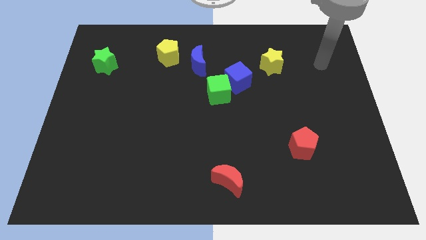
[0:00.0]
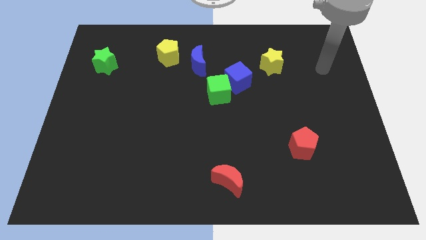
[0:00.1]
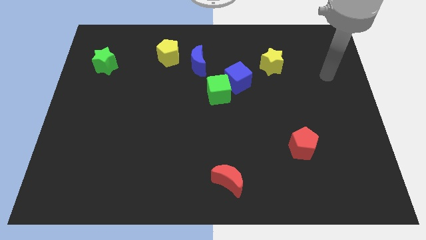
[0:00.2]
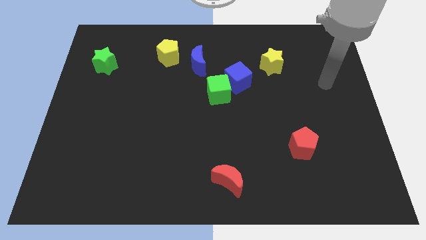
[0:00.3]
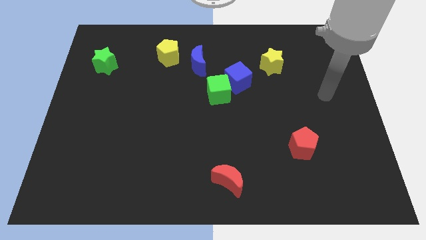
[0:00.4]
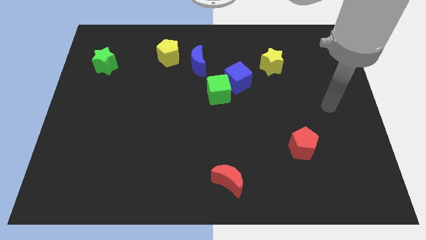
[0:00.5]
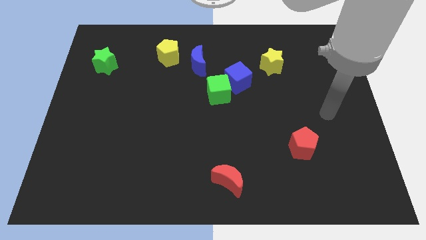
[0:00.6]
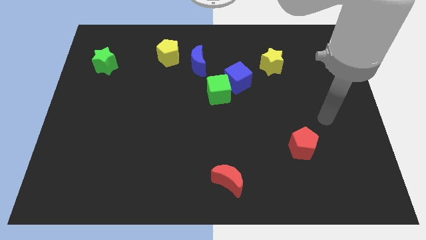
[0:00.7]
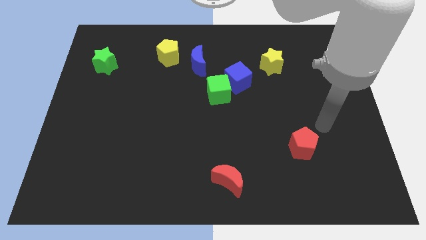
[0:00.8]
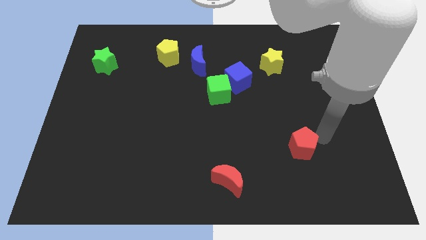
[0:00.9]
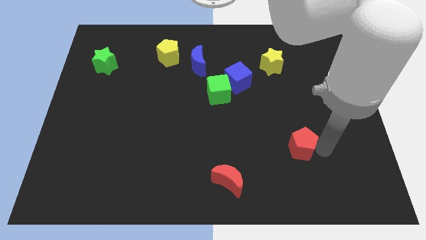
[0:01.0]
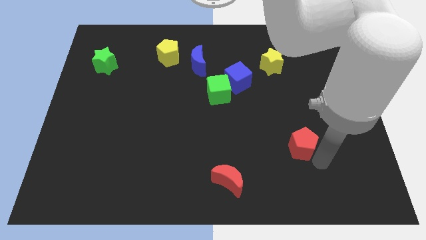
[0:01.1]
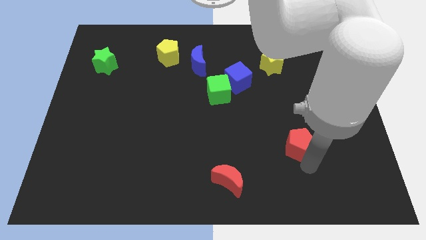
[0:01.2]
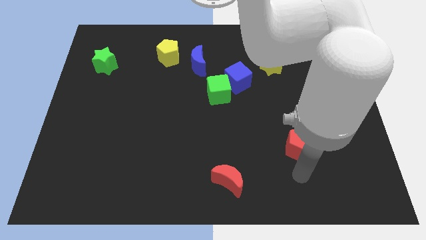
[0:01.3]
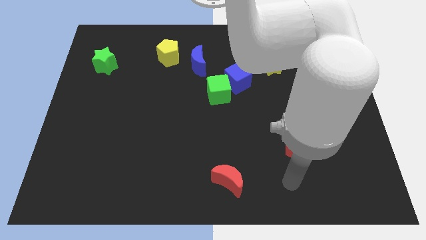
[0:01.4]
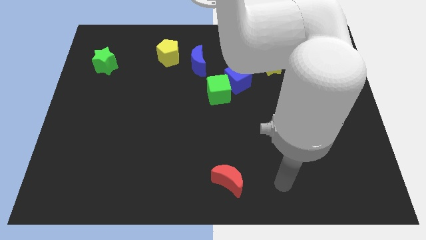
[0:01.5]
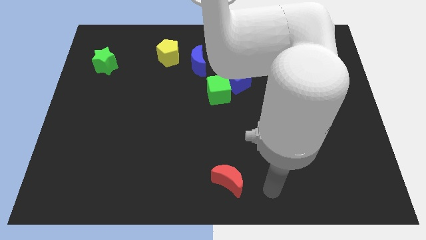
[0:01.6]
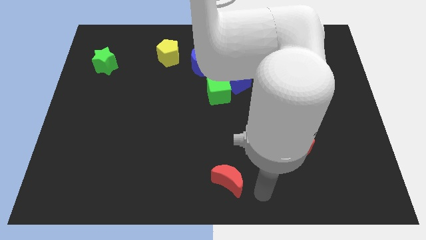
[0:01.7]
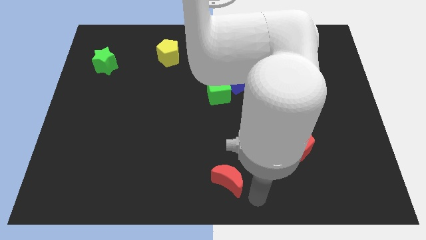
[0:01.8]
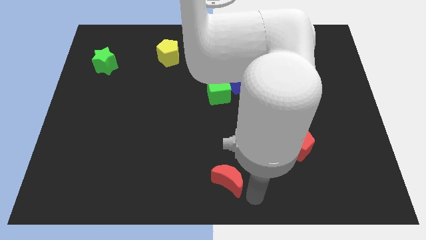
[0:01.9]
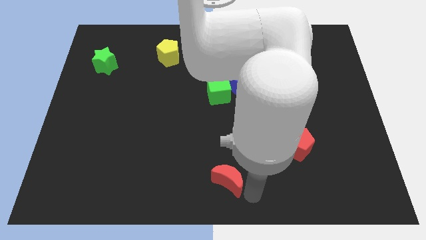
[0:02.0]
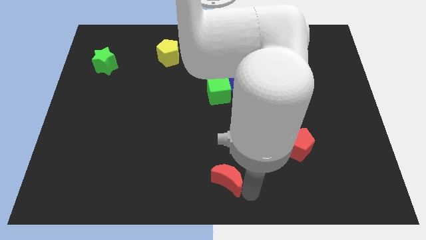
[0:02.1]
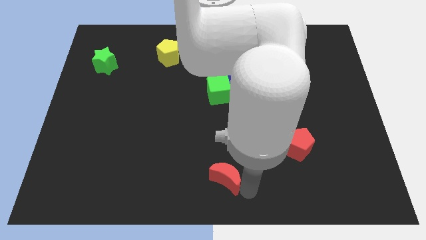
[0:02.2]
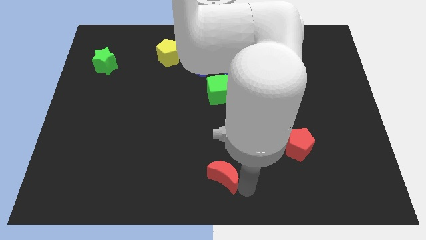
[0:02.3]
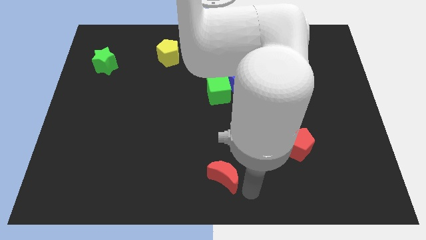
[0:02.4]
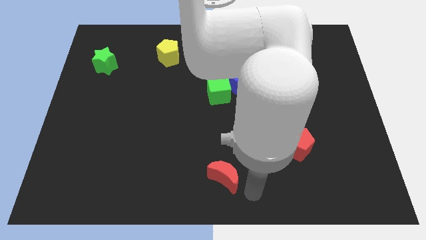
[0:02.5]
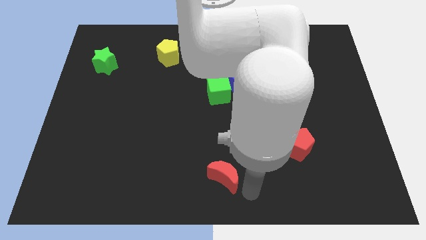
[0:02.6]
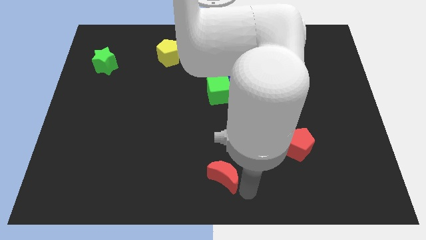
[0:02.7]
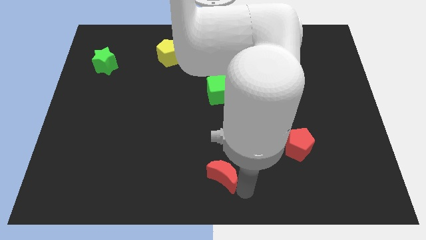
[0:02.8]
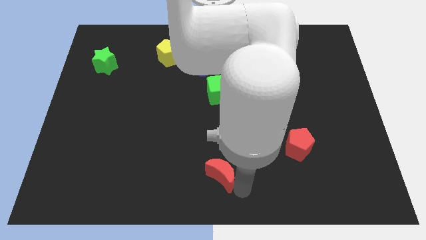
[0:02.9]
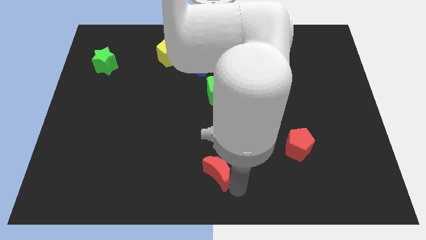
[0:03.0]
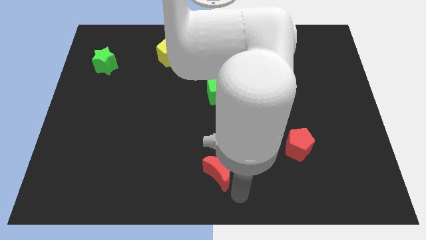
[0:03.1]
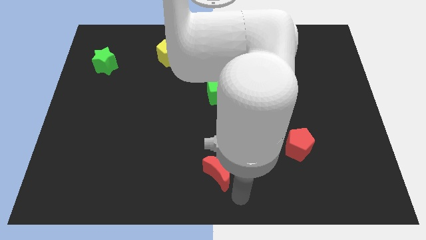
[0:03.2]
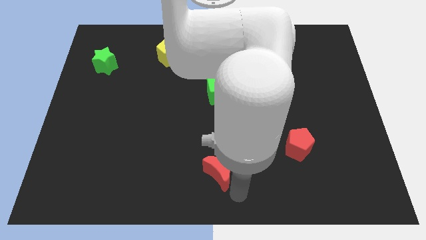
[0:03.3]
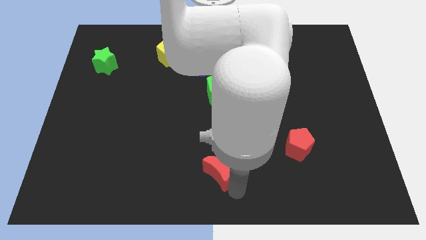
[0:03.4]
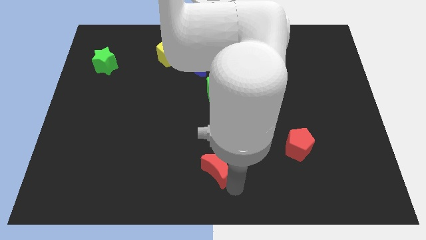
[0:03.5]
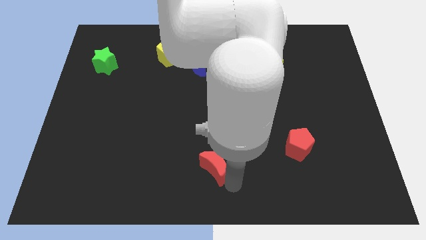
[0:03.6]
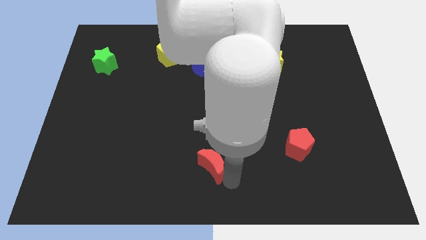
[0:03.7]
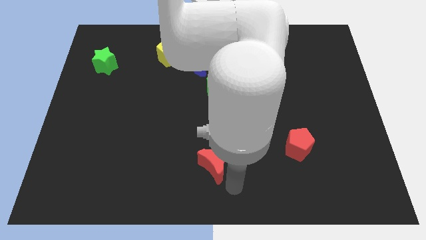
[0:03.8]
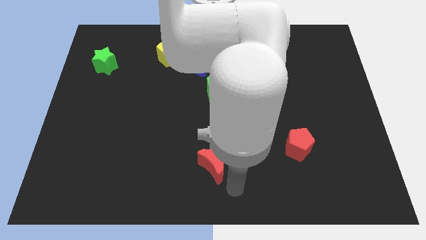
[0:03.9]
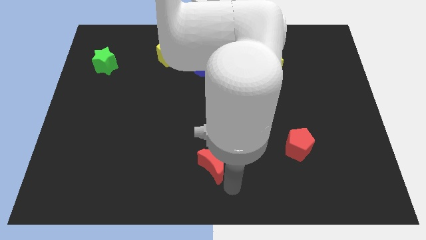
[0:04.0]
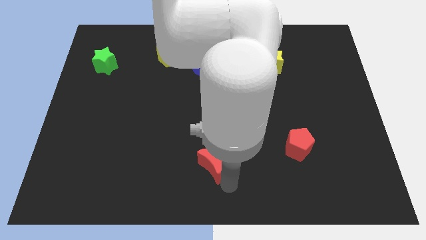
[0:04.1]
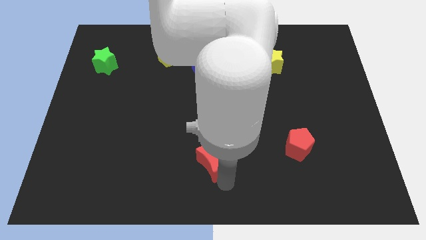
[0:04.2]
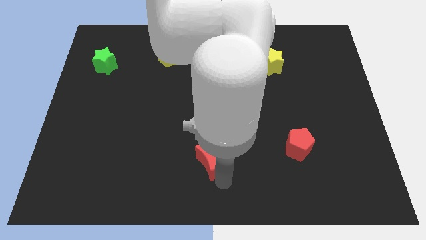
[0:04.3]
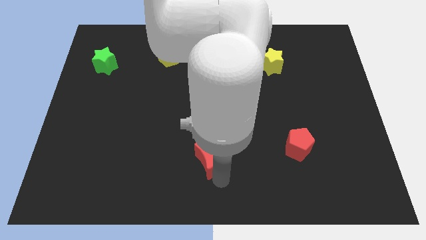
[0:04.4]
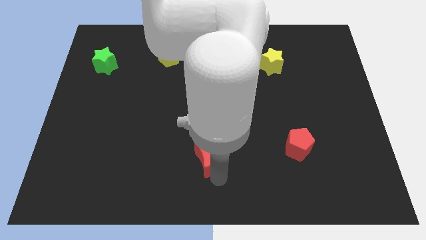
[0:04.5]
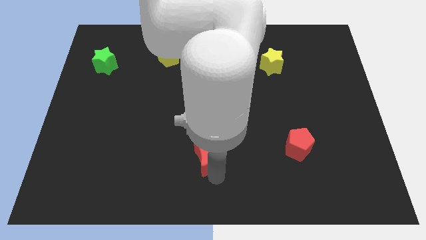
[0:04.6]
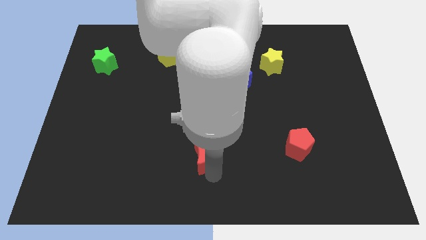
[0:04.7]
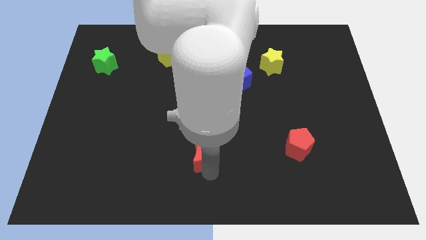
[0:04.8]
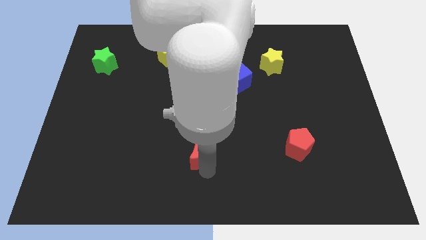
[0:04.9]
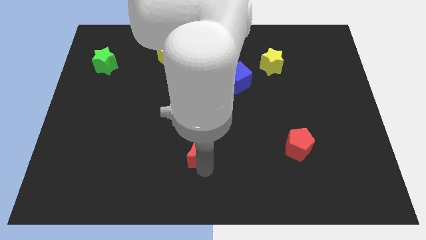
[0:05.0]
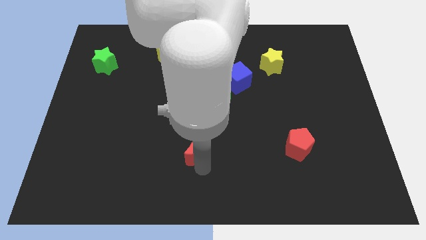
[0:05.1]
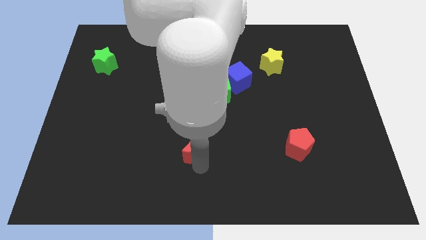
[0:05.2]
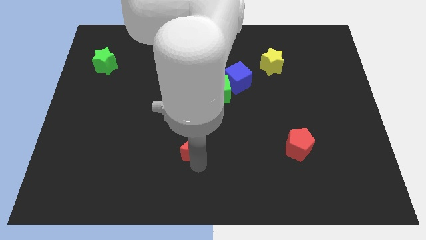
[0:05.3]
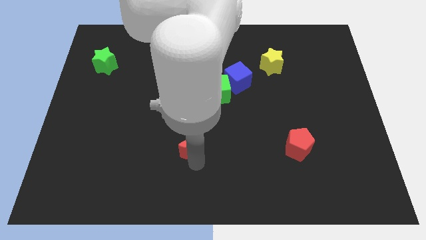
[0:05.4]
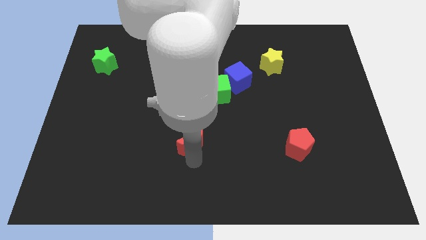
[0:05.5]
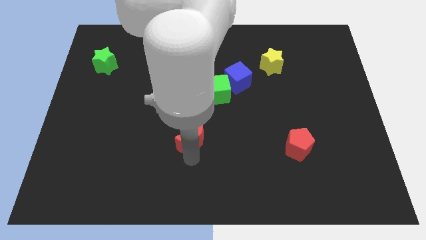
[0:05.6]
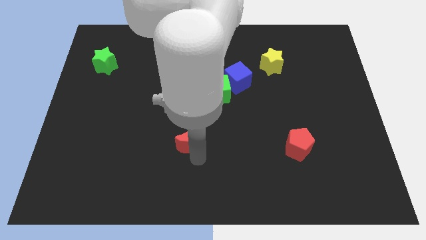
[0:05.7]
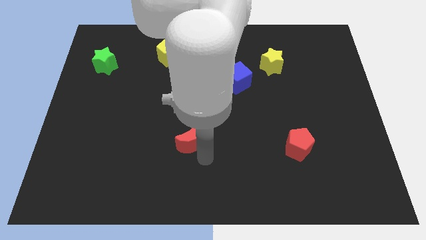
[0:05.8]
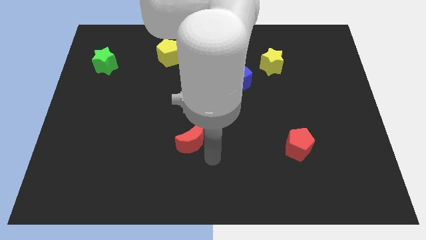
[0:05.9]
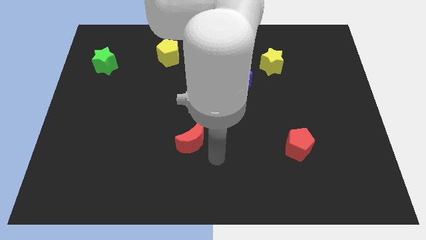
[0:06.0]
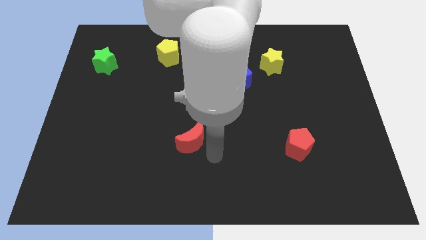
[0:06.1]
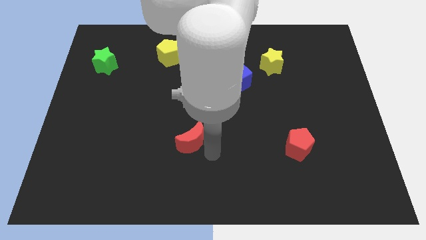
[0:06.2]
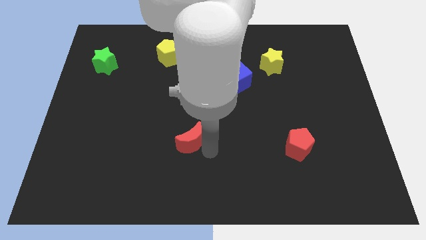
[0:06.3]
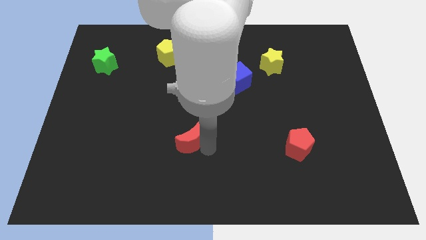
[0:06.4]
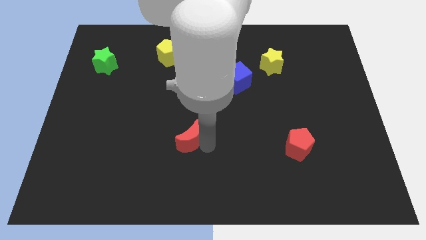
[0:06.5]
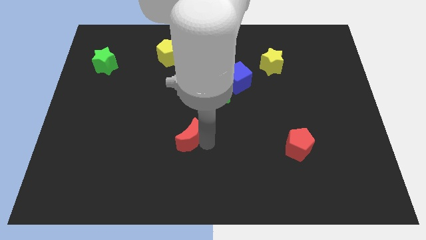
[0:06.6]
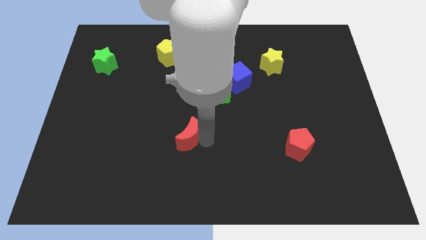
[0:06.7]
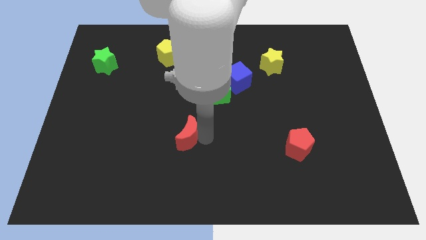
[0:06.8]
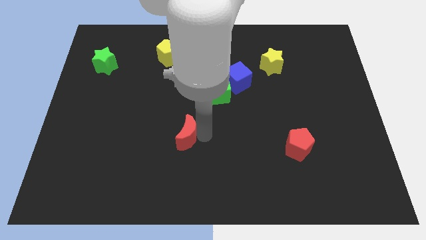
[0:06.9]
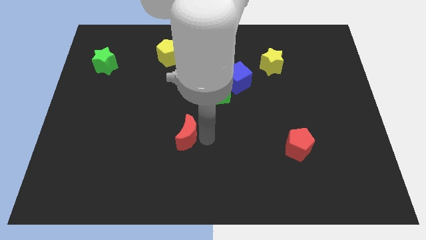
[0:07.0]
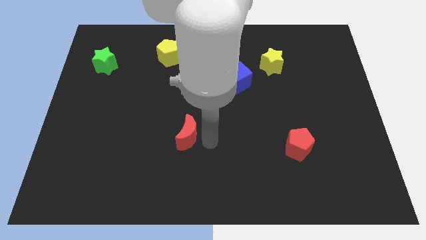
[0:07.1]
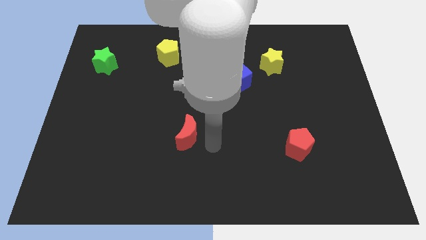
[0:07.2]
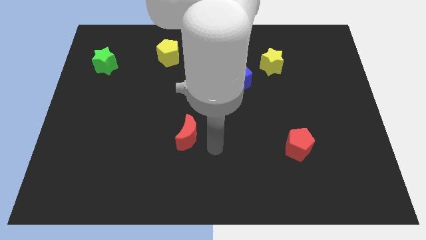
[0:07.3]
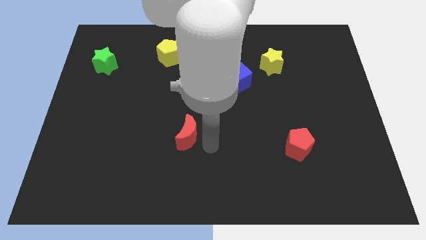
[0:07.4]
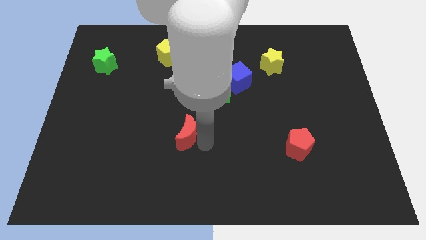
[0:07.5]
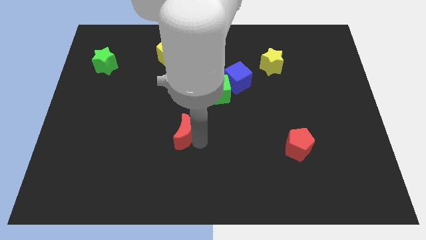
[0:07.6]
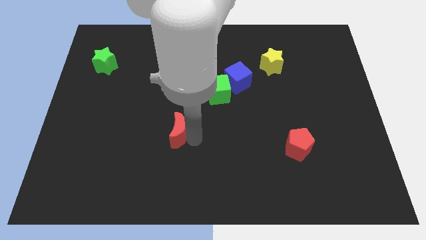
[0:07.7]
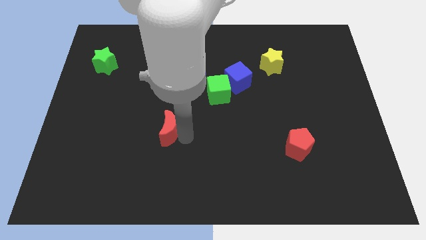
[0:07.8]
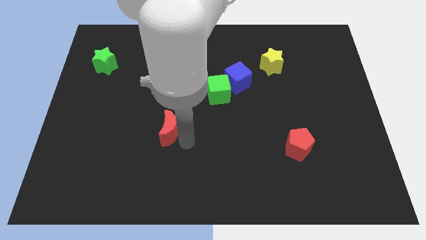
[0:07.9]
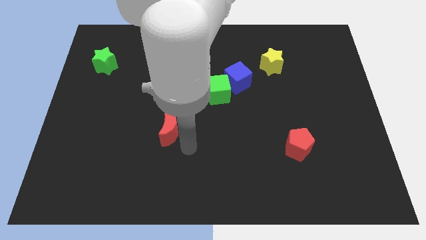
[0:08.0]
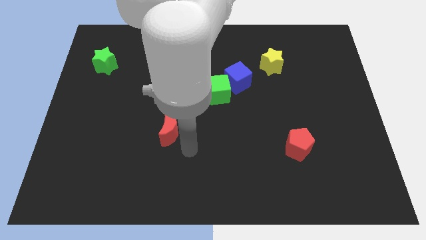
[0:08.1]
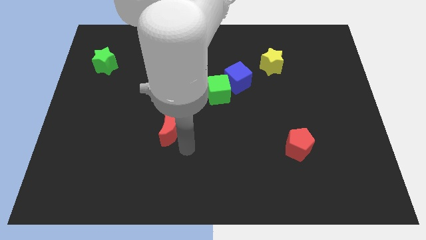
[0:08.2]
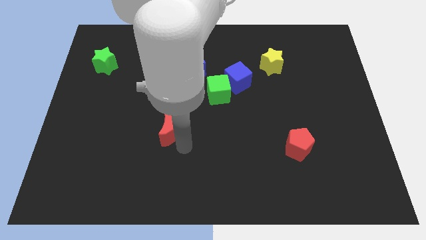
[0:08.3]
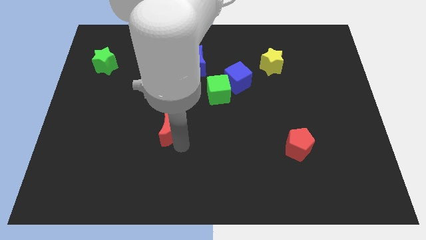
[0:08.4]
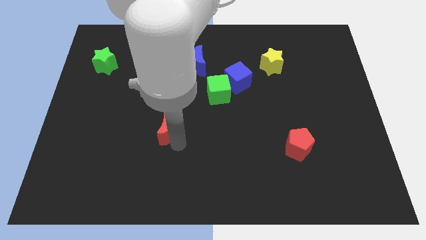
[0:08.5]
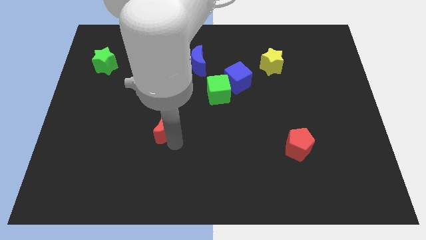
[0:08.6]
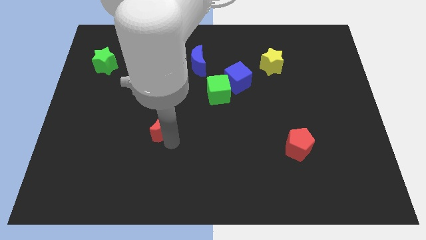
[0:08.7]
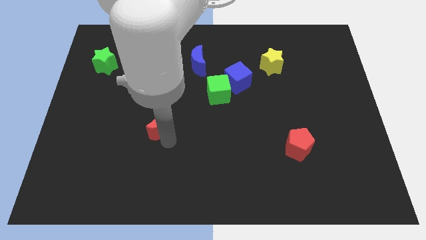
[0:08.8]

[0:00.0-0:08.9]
slide the red moon up and to the left diagonally
